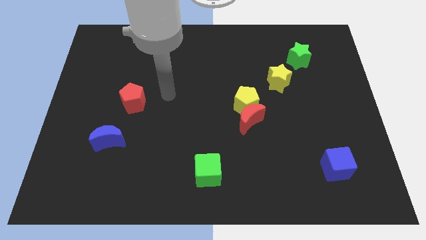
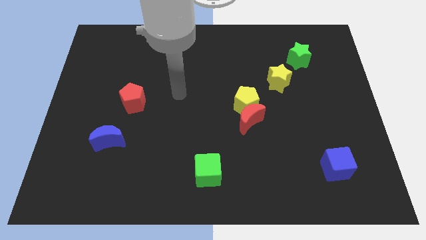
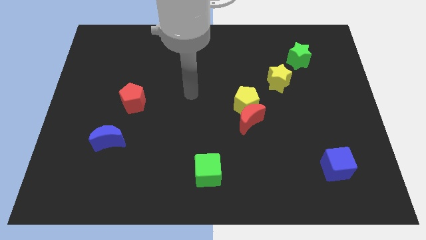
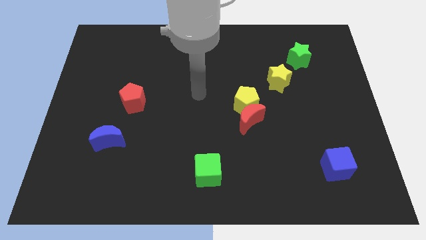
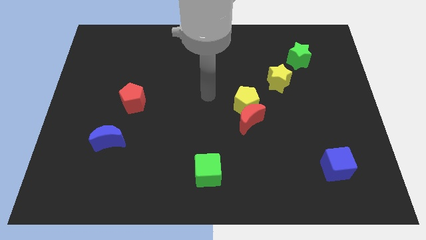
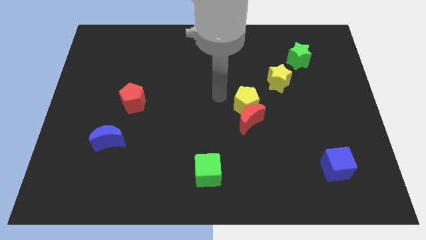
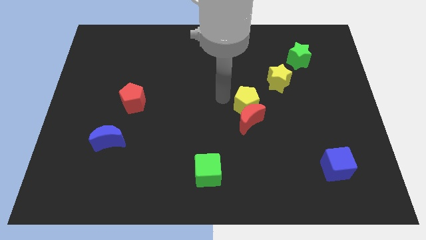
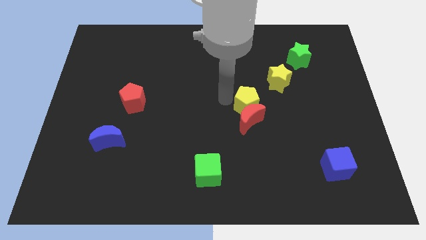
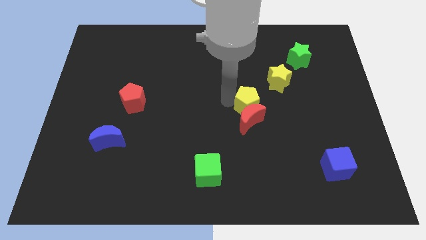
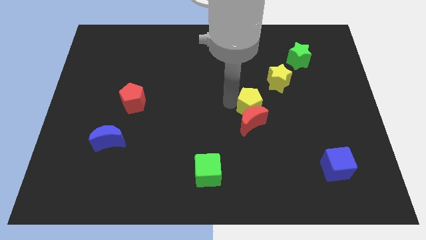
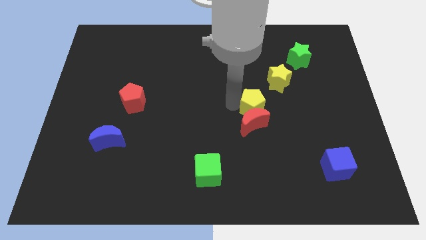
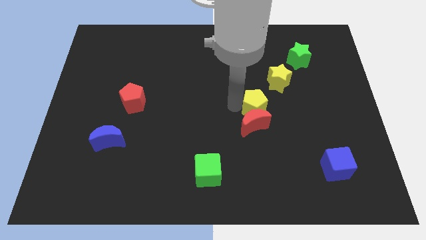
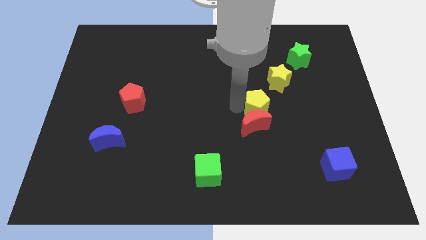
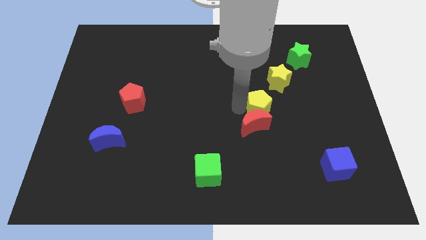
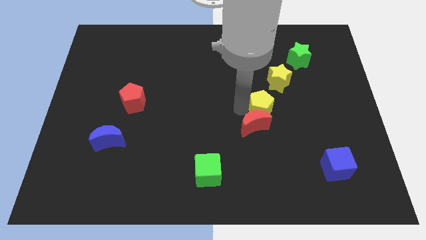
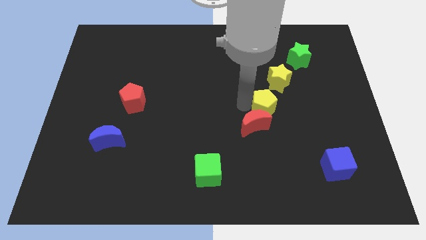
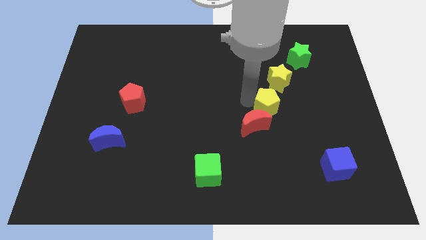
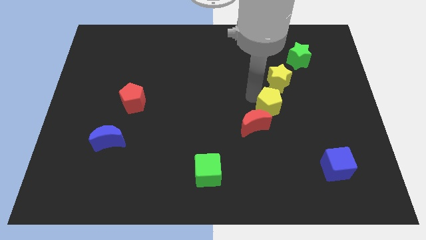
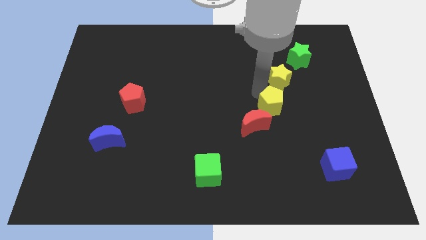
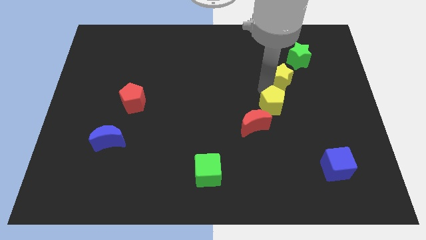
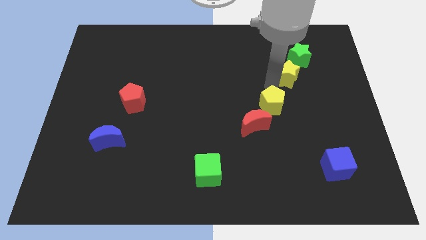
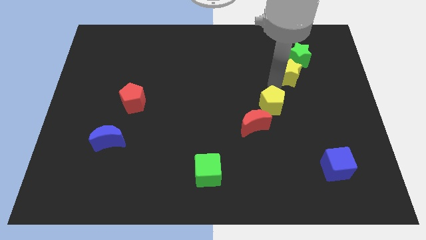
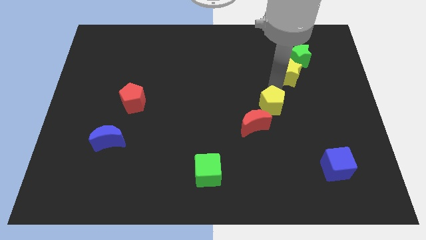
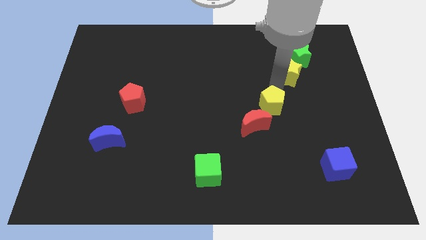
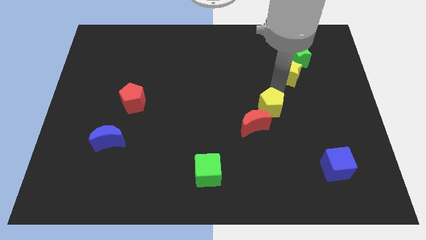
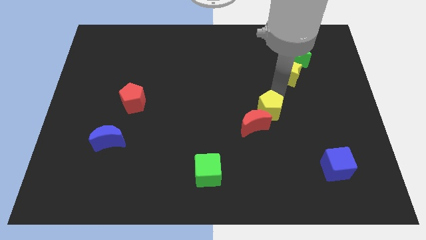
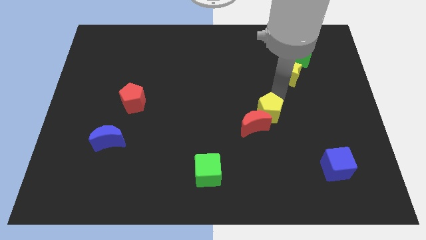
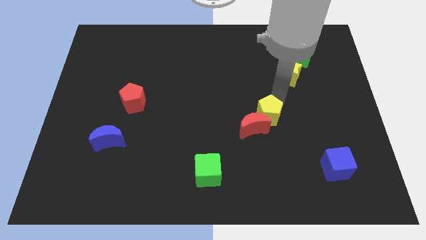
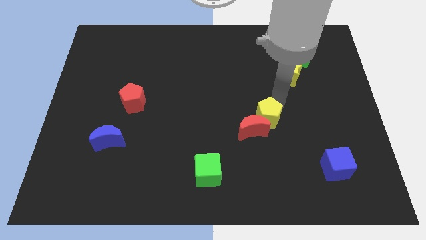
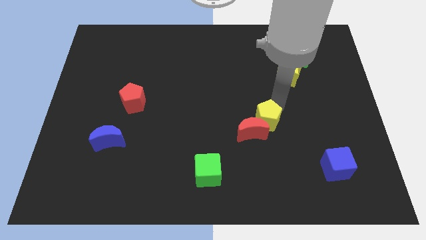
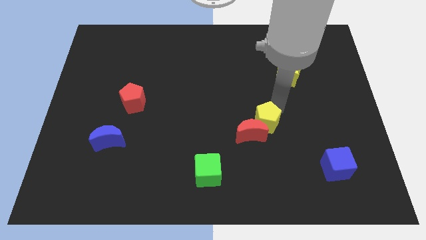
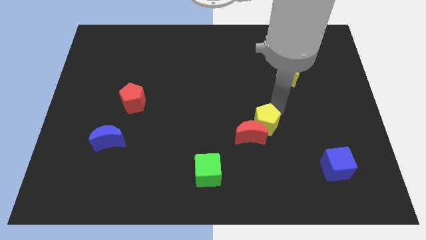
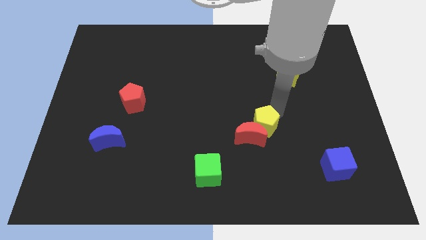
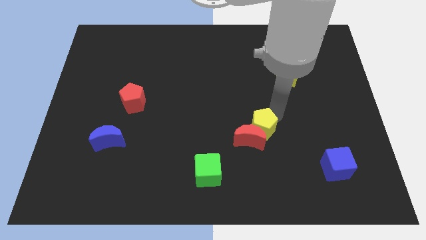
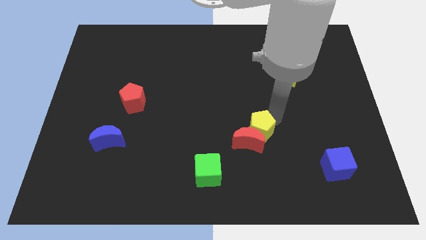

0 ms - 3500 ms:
push the yellow pentagon down slightly

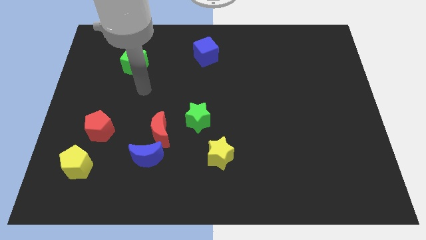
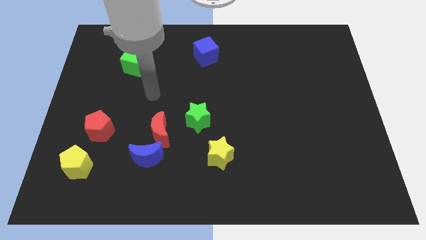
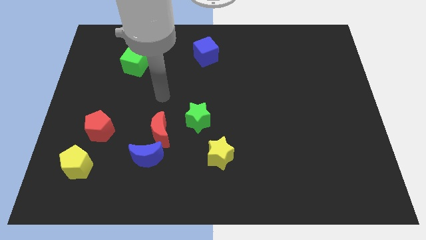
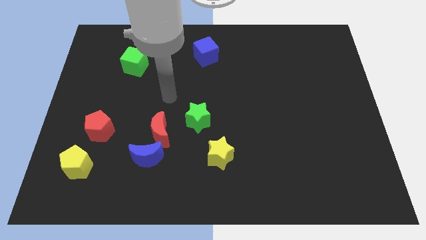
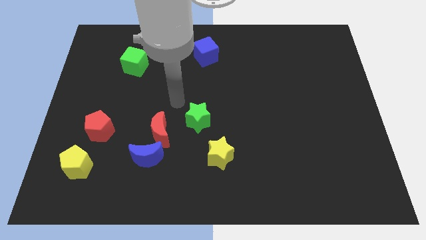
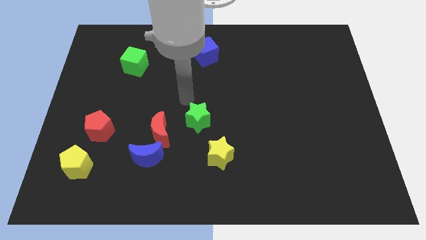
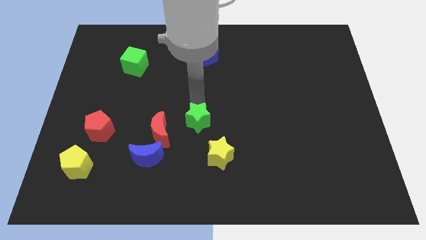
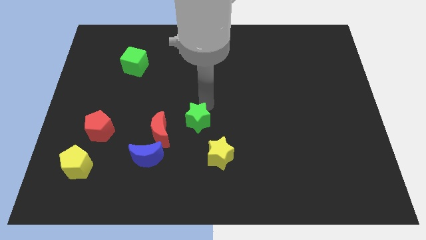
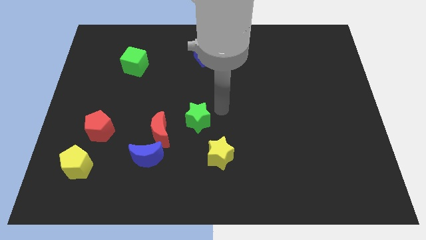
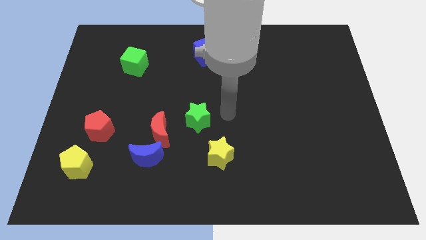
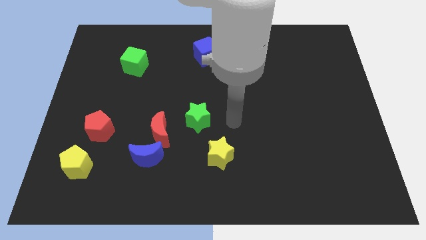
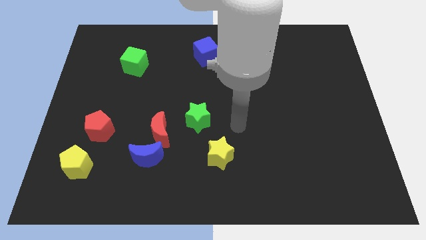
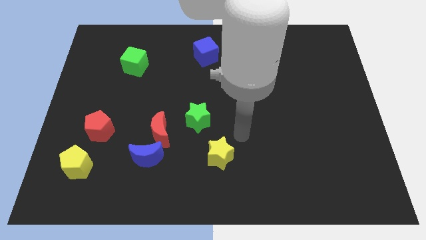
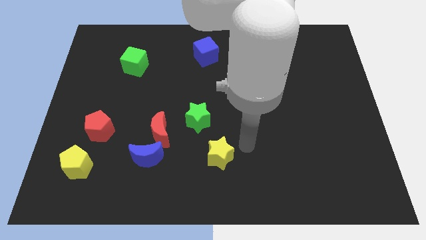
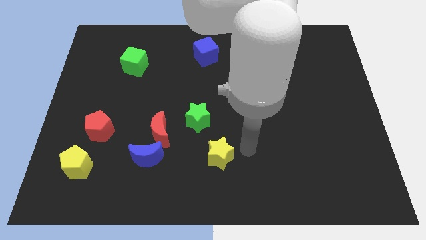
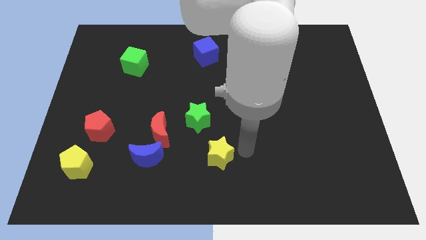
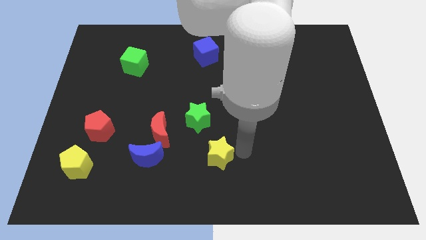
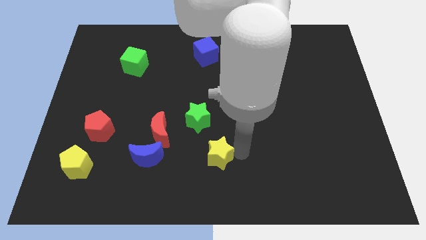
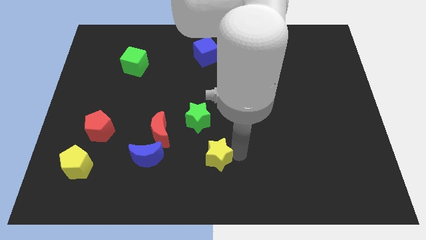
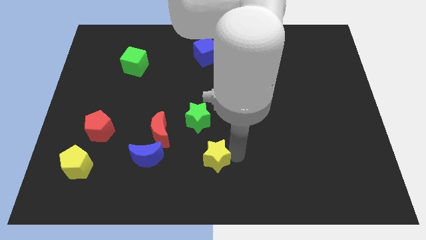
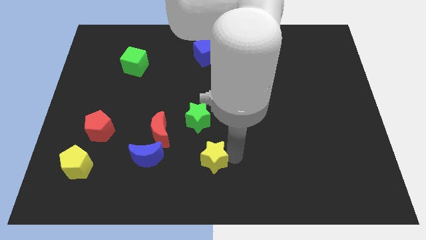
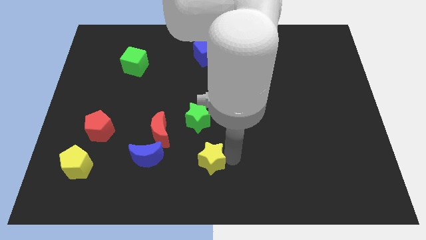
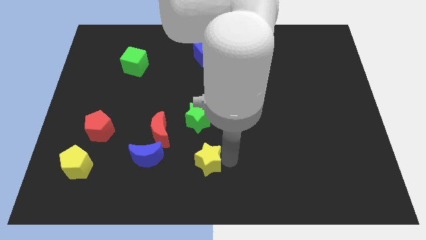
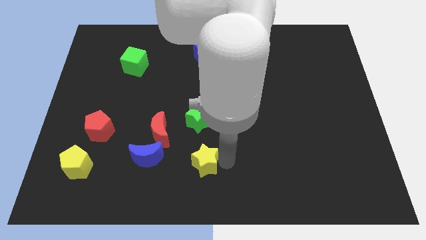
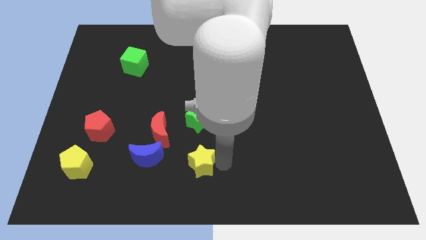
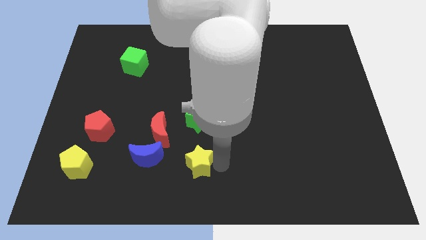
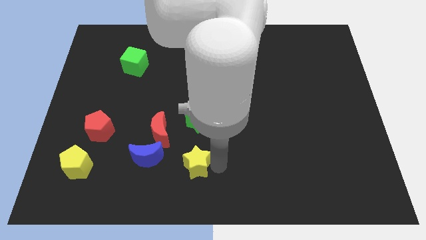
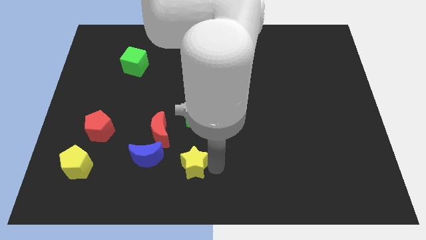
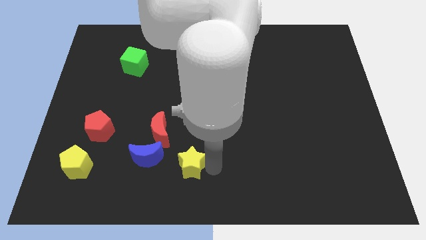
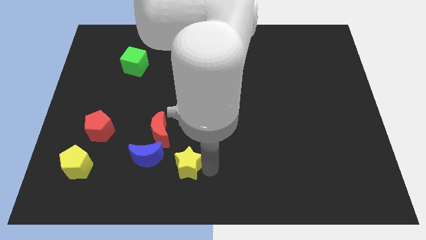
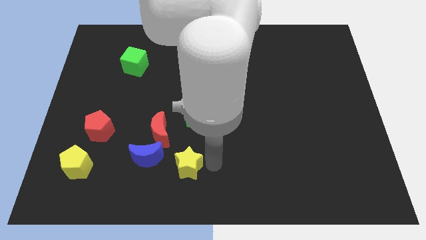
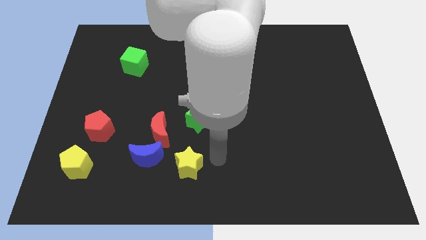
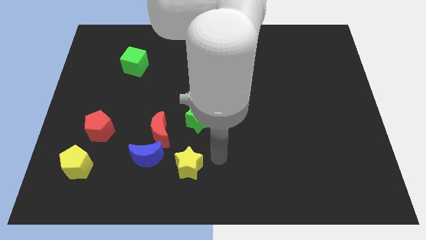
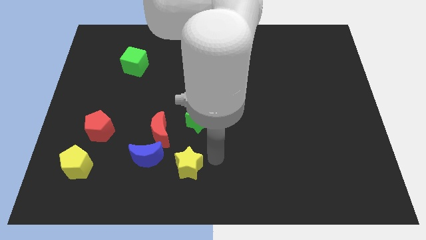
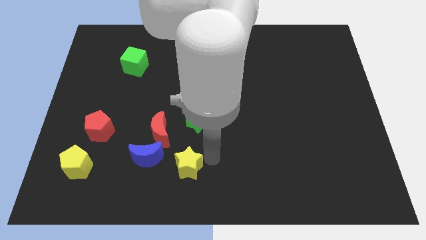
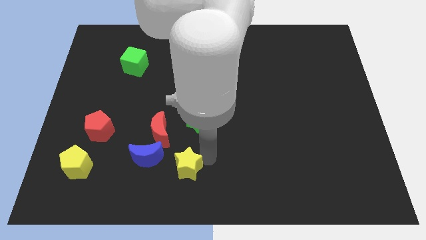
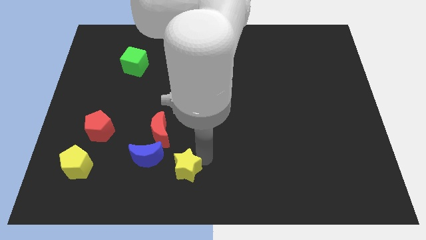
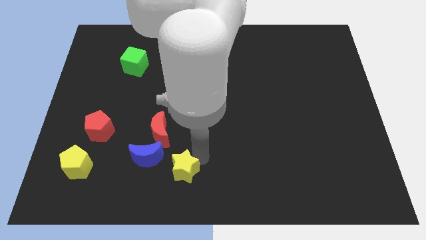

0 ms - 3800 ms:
slightly push the yellow star left

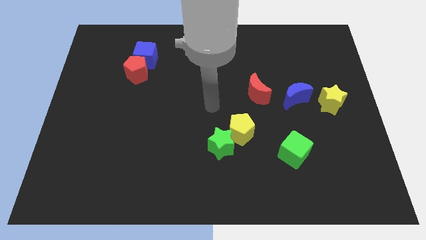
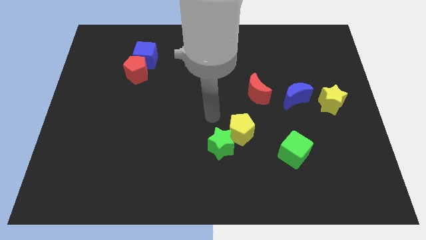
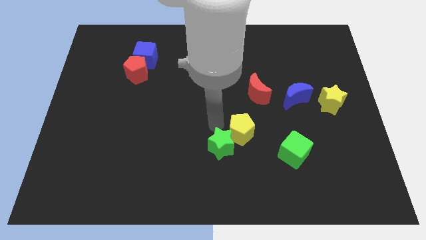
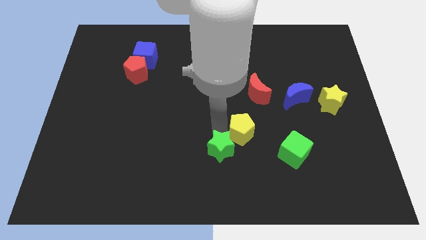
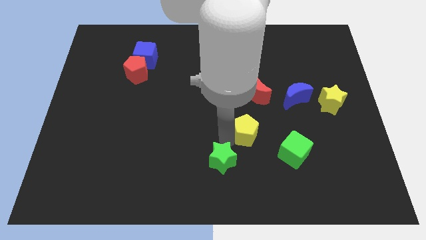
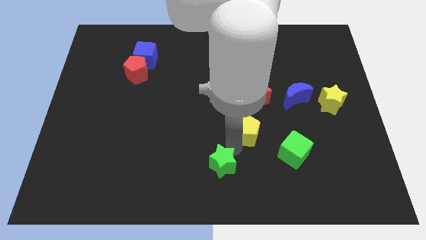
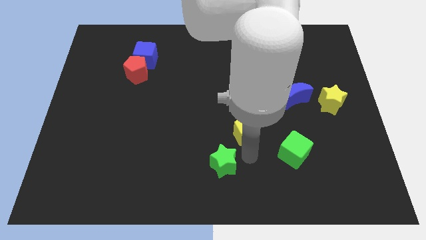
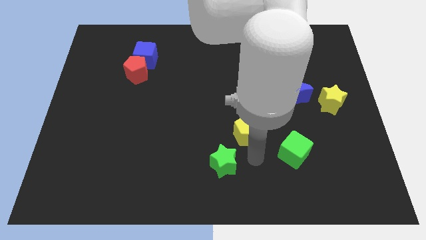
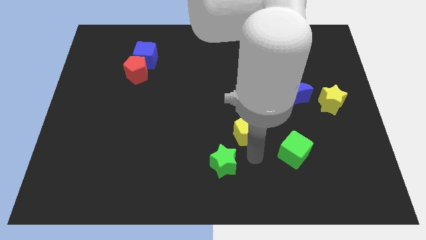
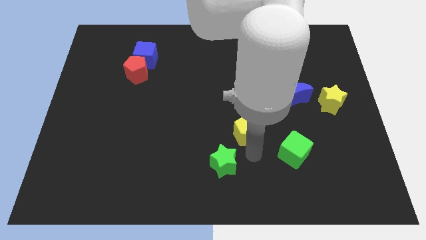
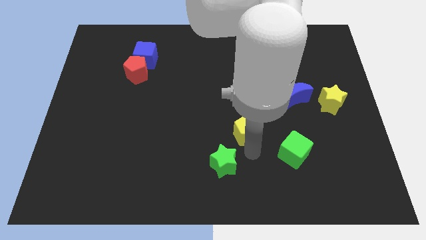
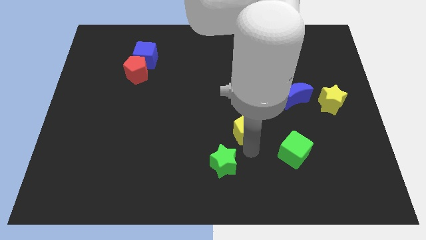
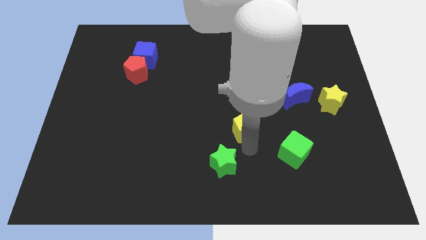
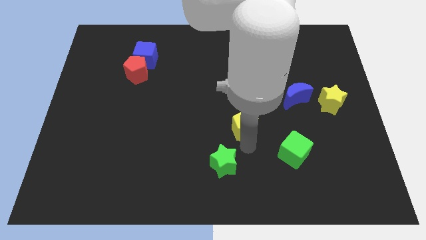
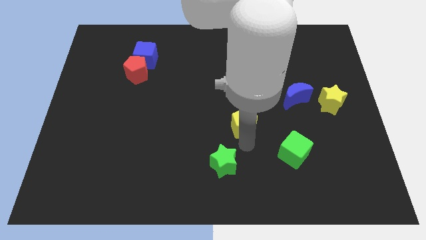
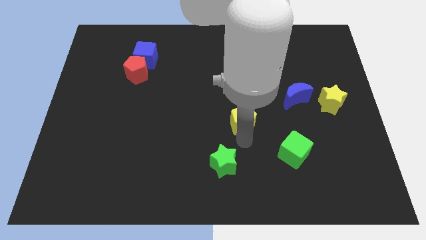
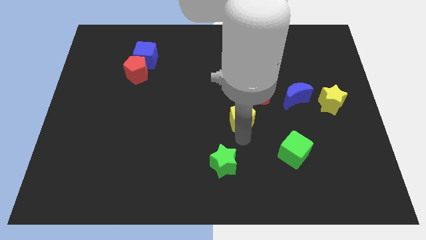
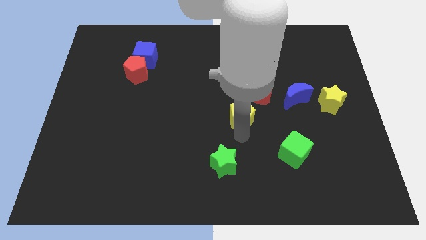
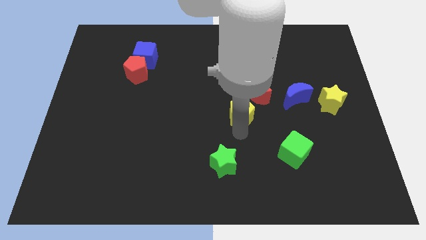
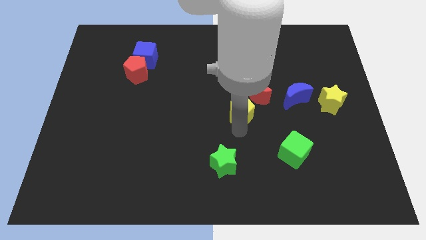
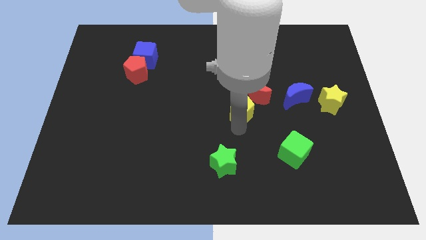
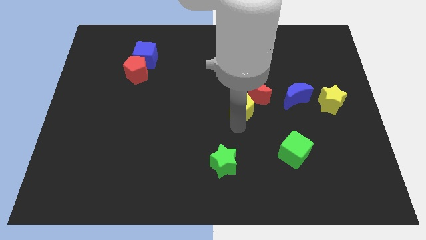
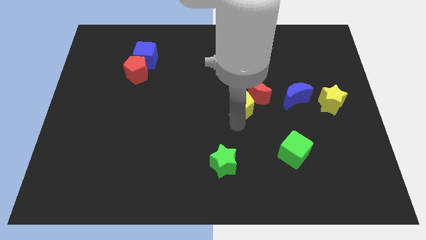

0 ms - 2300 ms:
move the yellow pentagon slightly upwards
